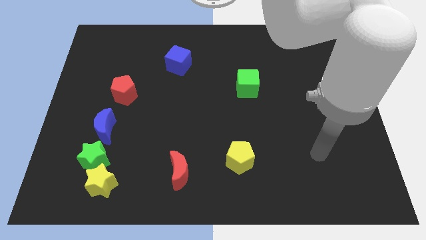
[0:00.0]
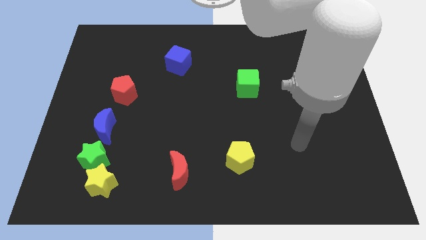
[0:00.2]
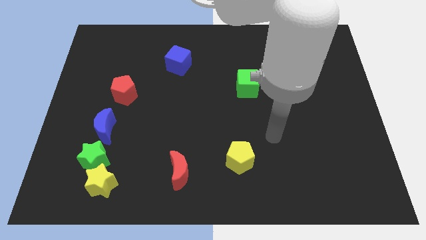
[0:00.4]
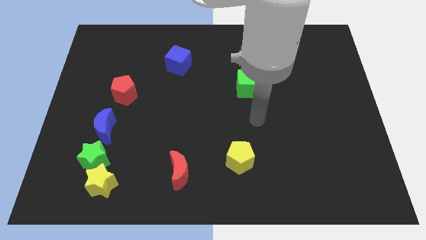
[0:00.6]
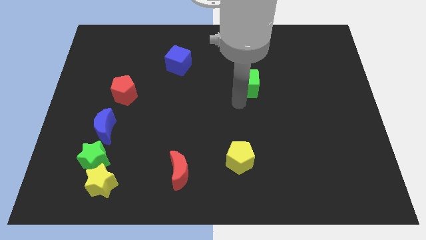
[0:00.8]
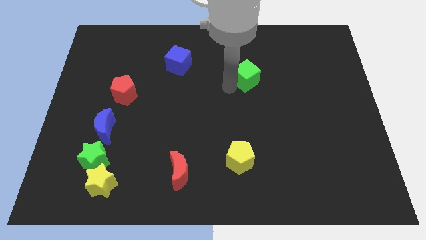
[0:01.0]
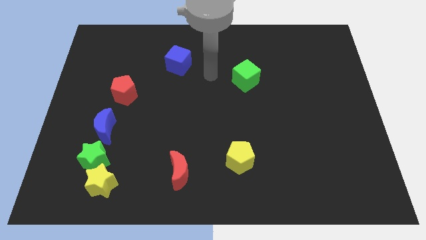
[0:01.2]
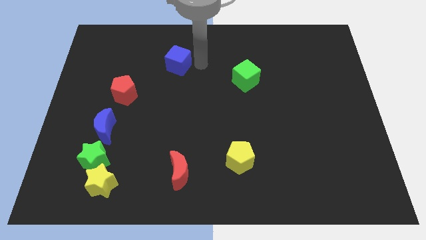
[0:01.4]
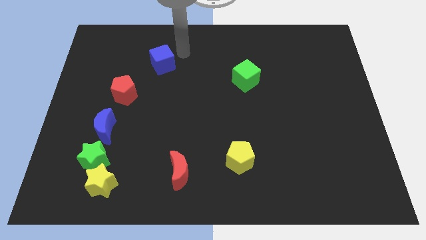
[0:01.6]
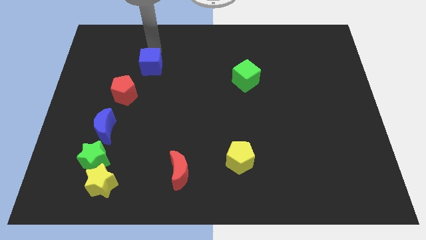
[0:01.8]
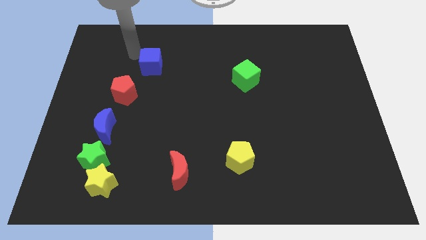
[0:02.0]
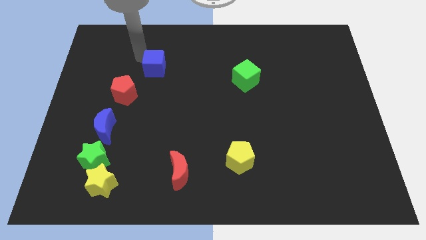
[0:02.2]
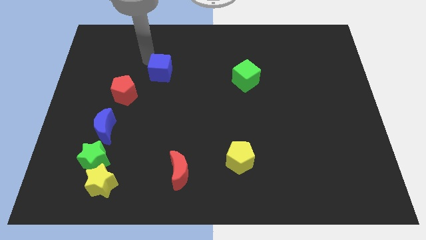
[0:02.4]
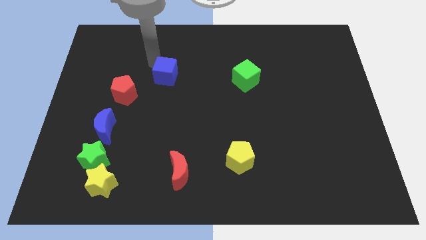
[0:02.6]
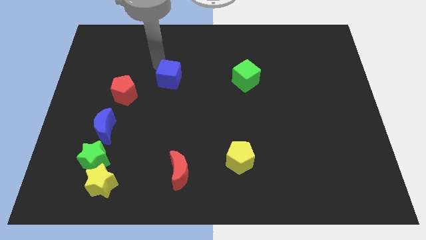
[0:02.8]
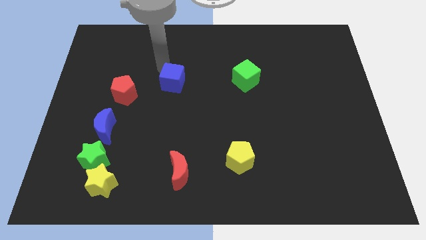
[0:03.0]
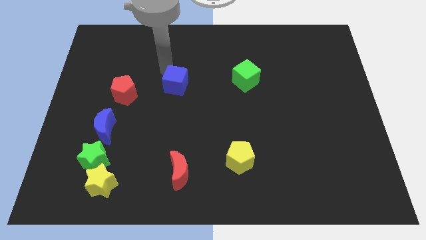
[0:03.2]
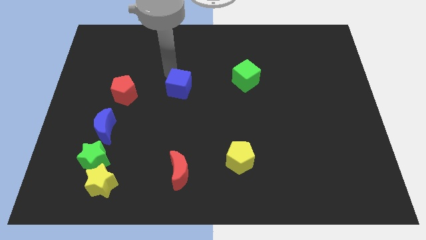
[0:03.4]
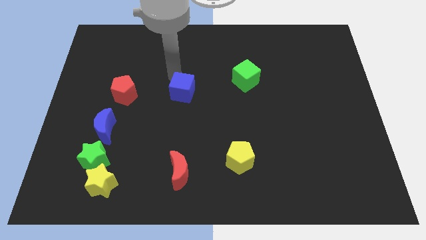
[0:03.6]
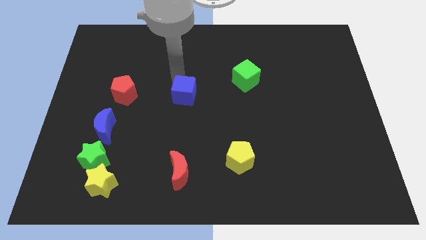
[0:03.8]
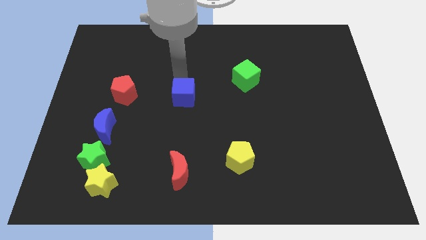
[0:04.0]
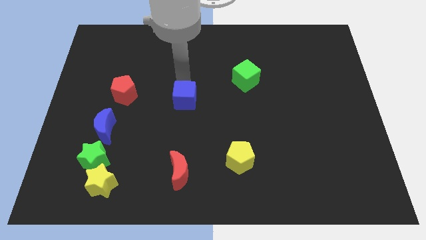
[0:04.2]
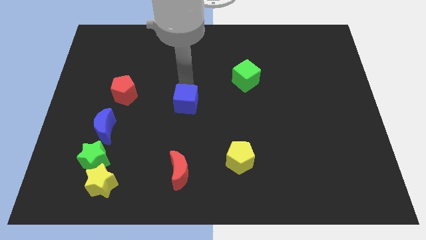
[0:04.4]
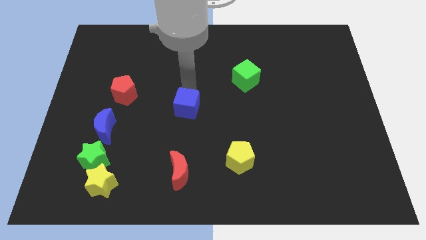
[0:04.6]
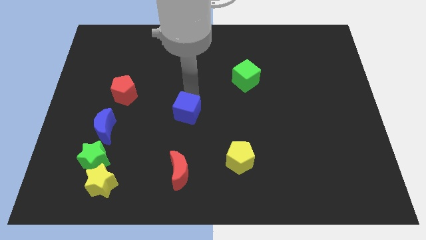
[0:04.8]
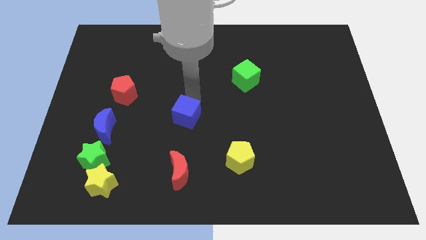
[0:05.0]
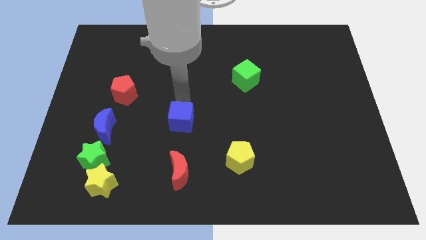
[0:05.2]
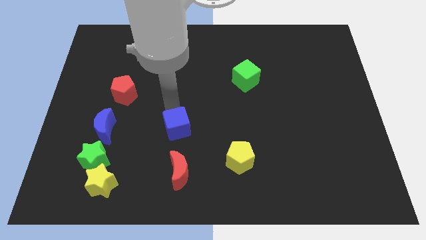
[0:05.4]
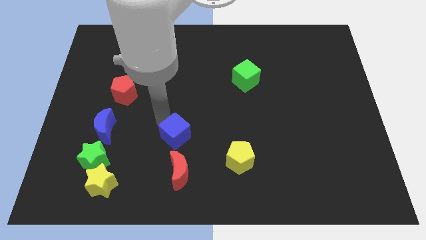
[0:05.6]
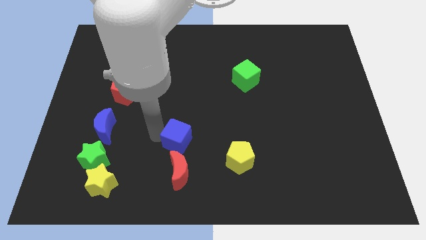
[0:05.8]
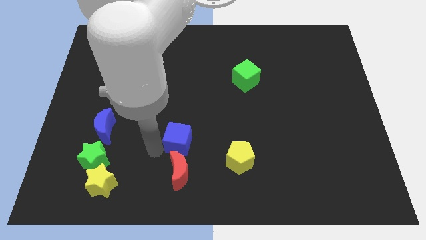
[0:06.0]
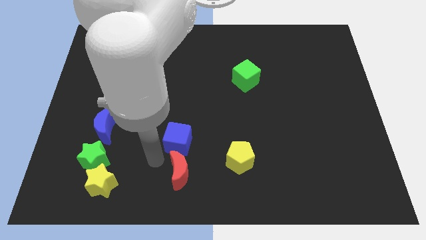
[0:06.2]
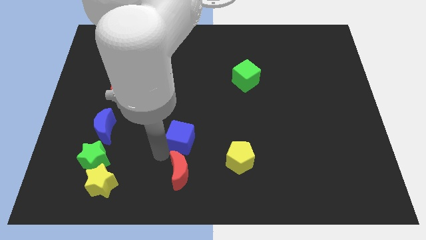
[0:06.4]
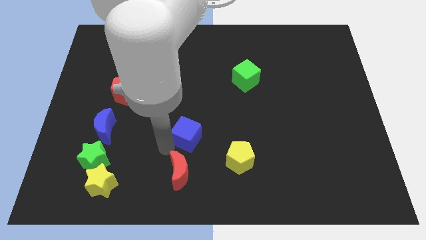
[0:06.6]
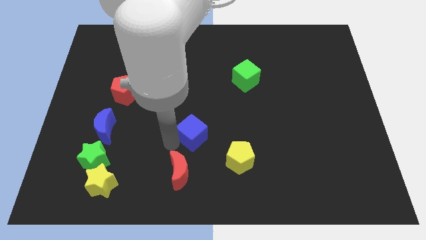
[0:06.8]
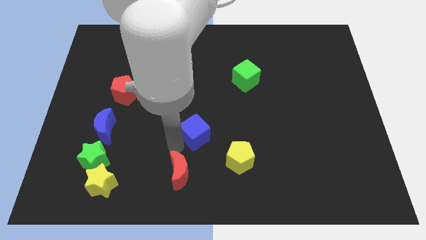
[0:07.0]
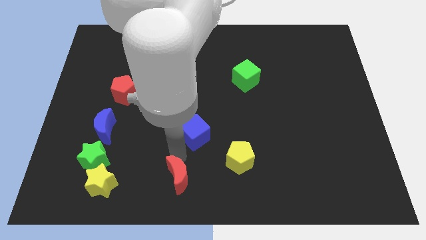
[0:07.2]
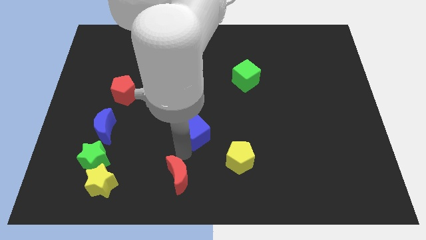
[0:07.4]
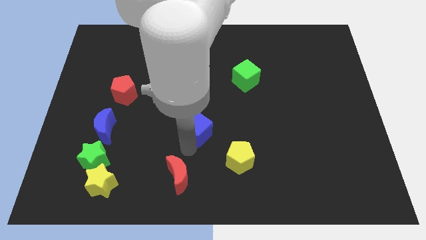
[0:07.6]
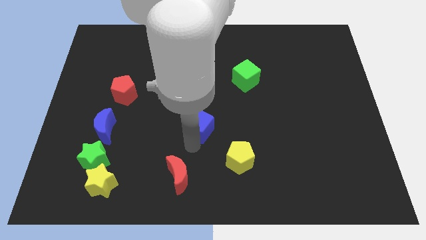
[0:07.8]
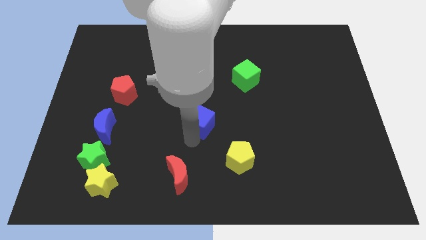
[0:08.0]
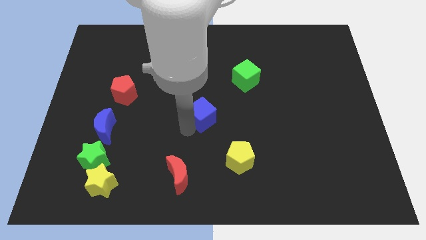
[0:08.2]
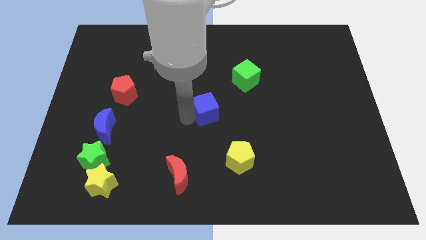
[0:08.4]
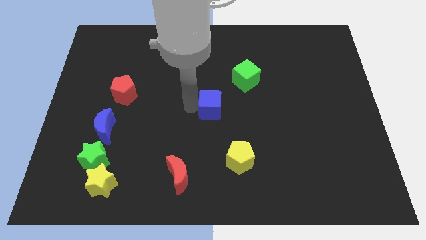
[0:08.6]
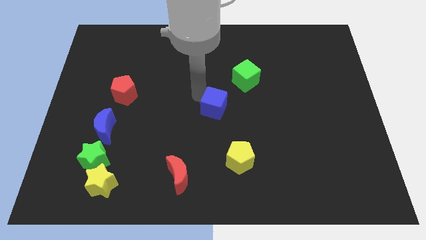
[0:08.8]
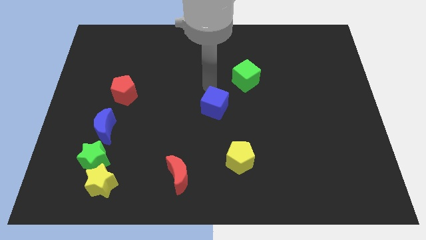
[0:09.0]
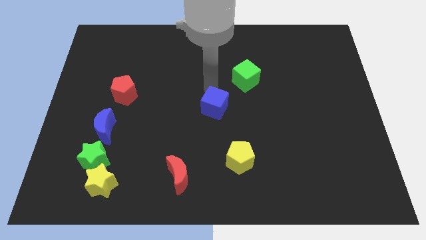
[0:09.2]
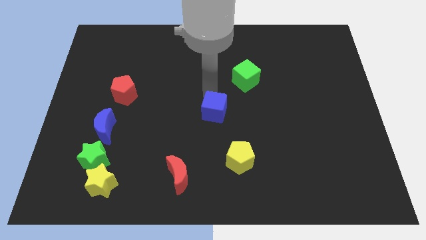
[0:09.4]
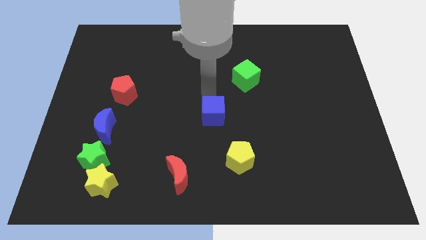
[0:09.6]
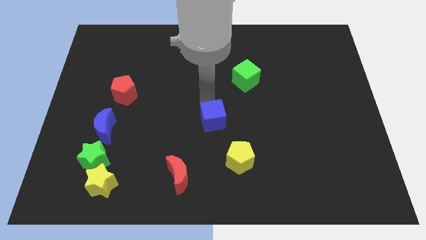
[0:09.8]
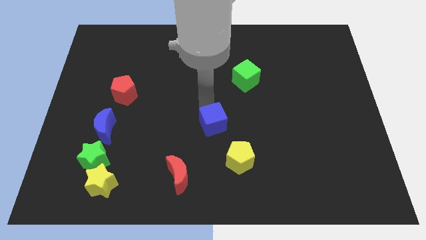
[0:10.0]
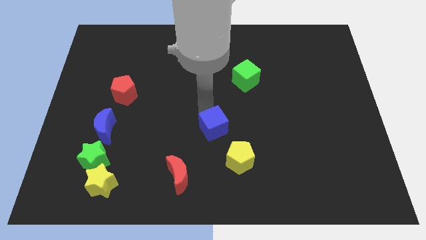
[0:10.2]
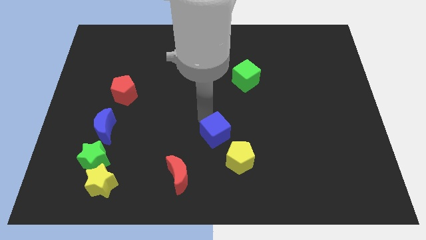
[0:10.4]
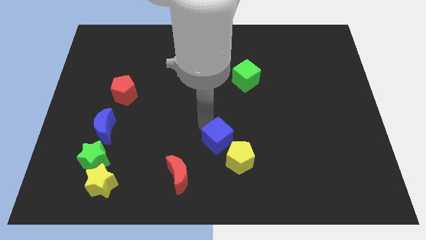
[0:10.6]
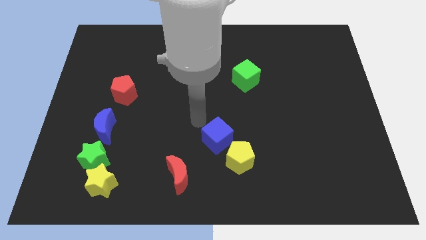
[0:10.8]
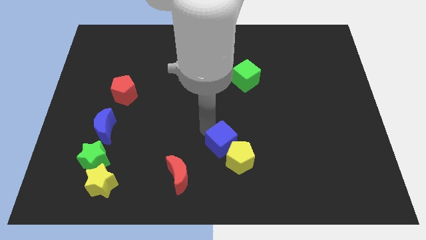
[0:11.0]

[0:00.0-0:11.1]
push the blue cube towards the yellow pentagon
